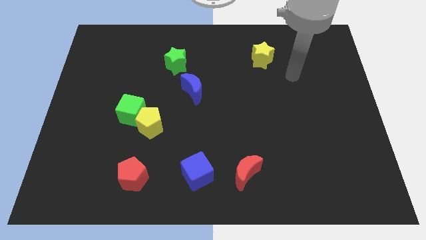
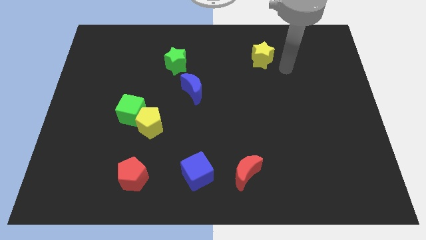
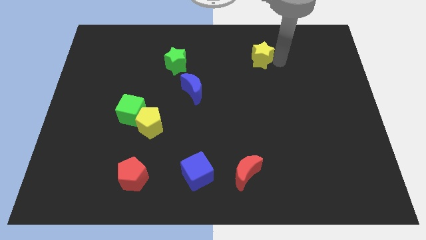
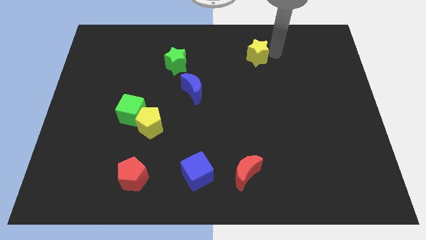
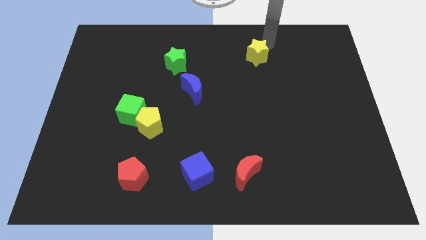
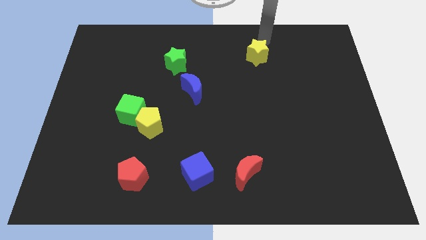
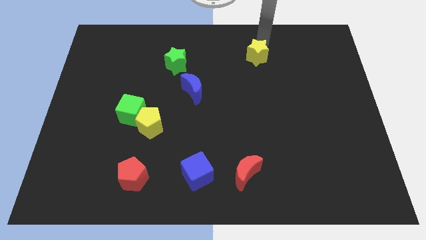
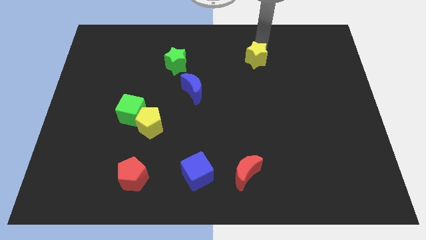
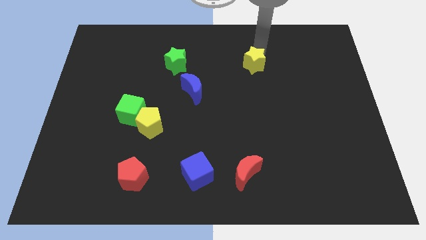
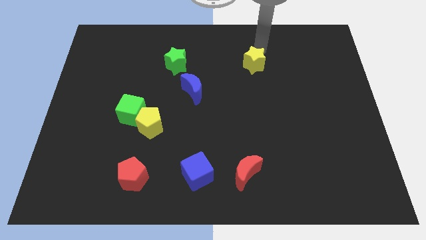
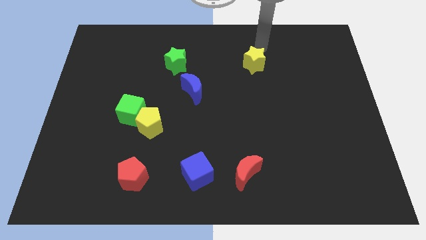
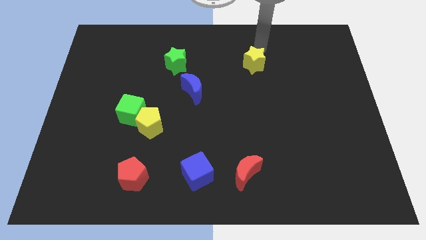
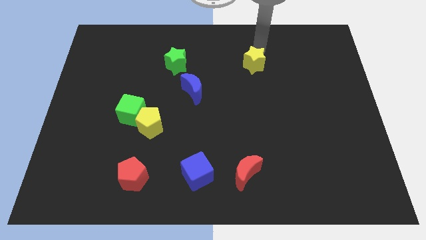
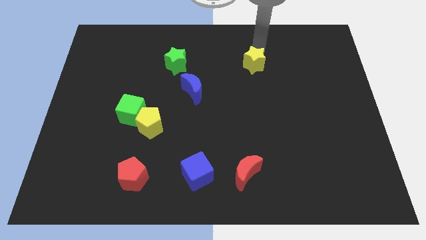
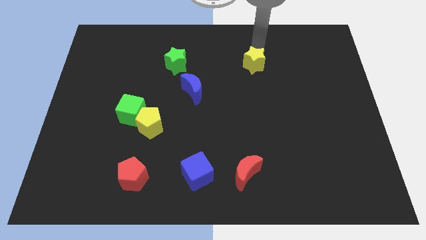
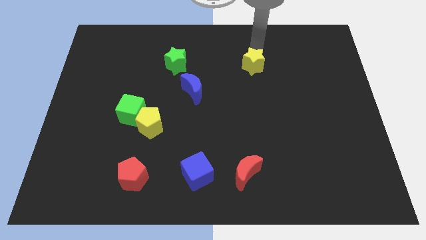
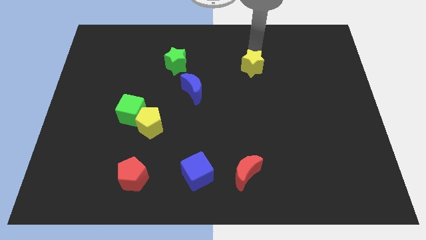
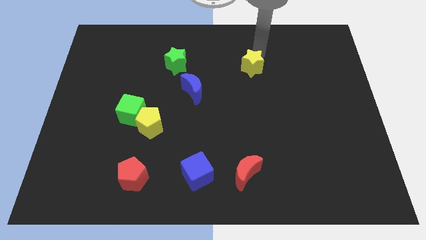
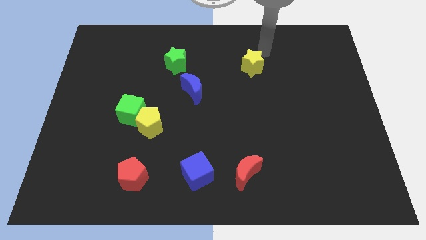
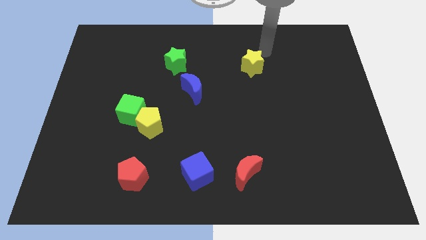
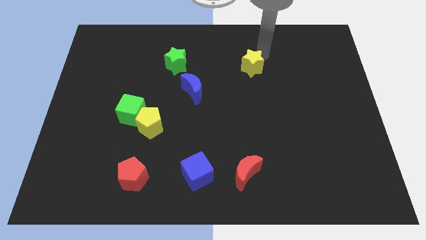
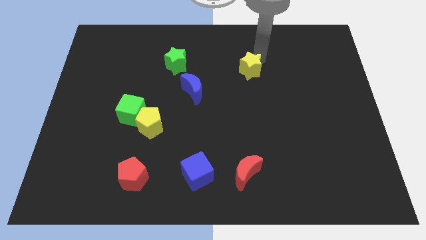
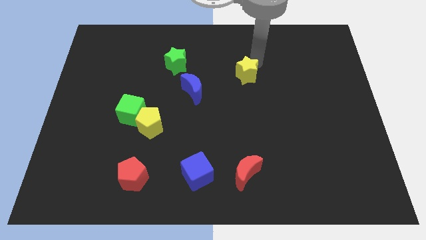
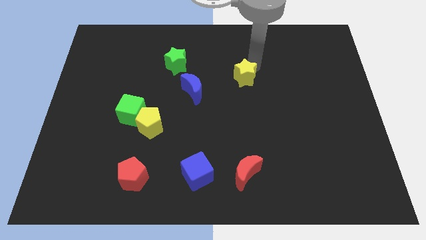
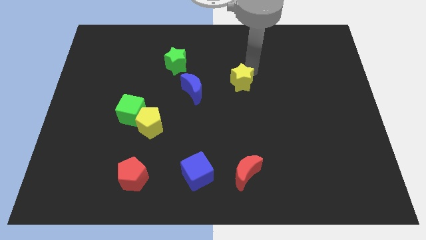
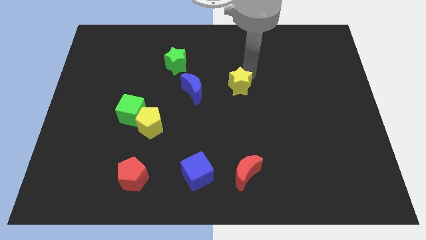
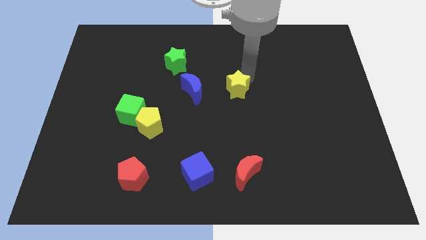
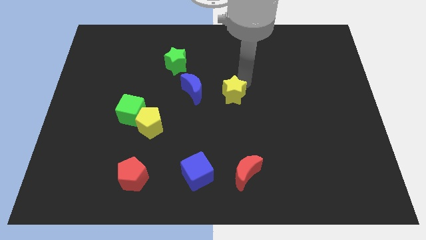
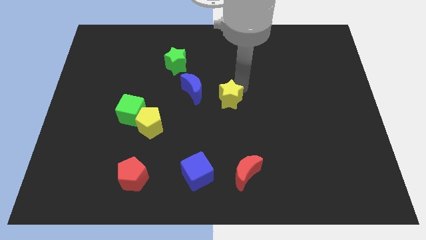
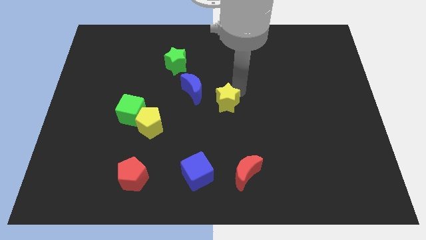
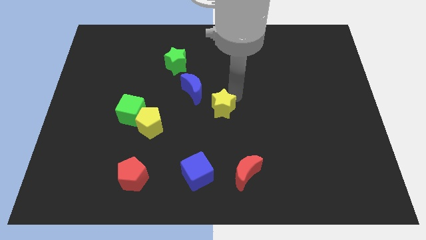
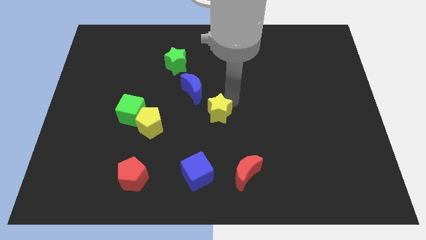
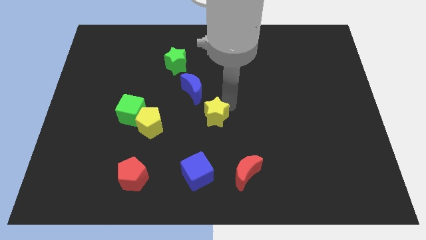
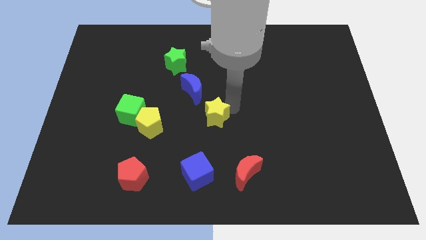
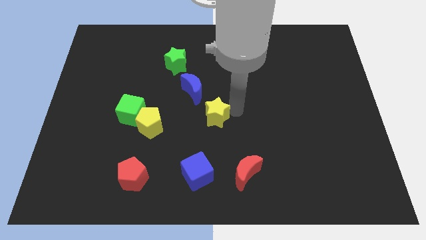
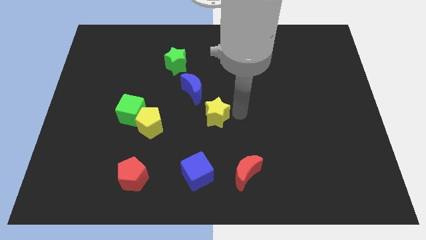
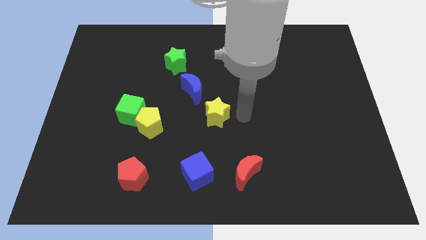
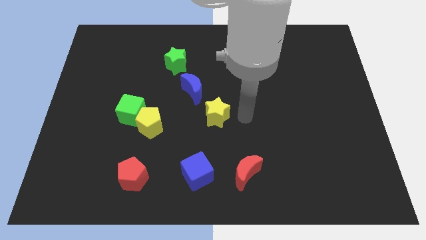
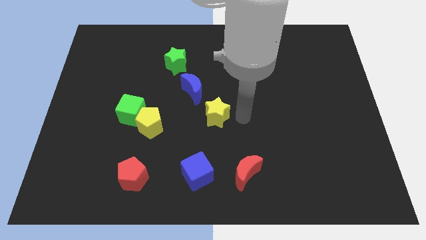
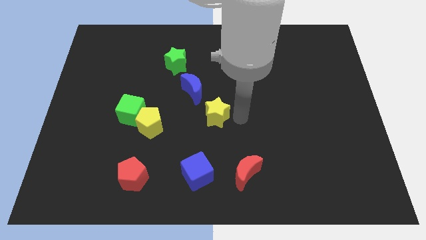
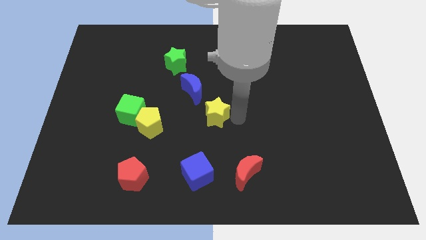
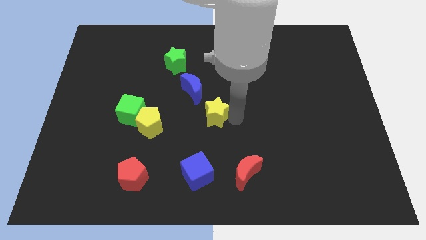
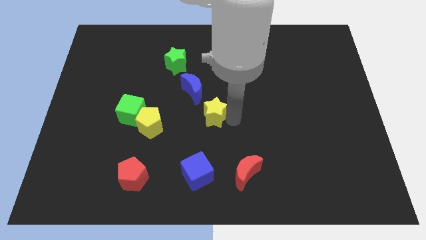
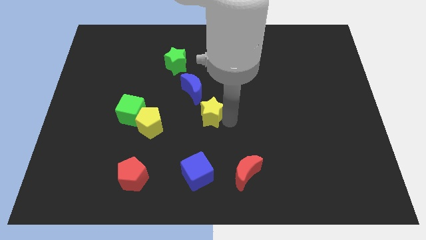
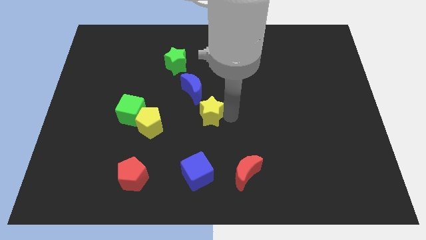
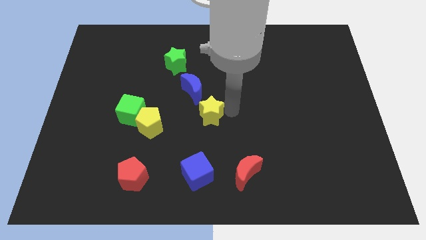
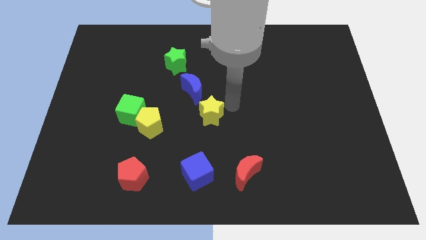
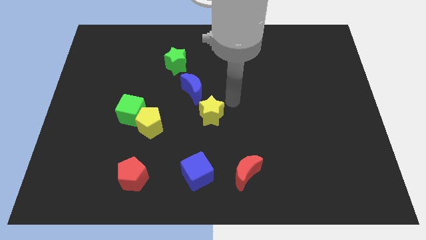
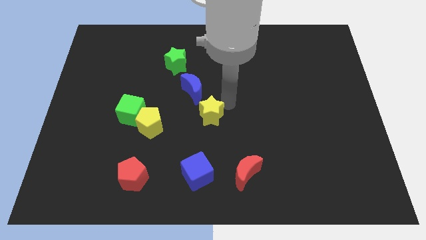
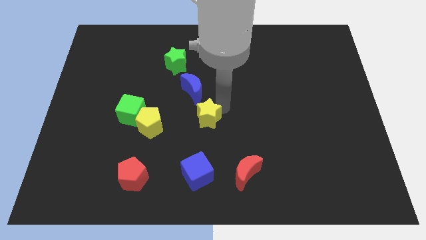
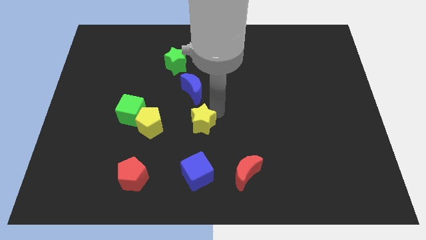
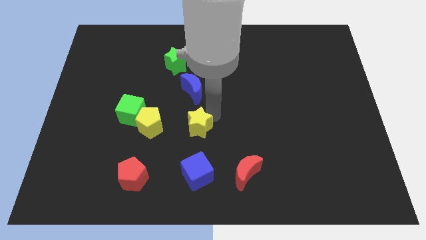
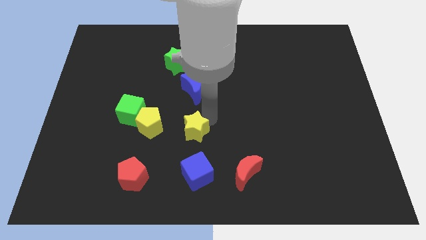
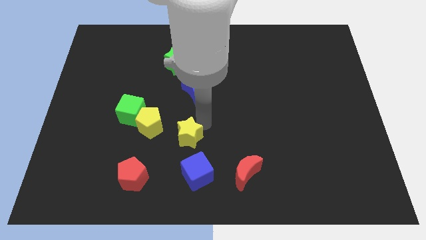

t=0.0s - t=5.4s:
push the yellow star to the top left of the blue cube

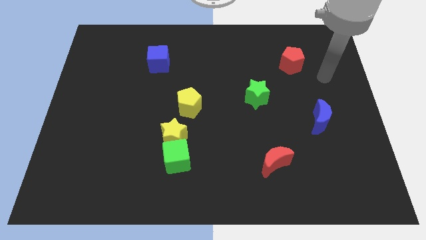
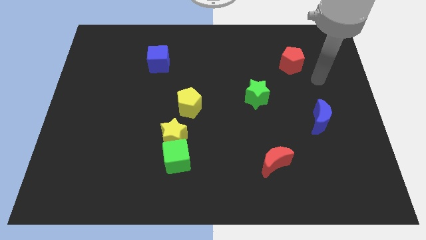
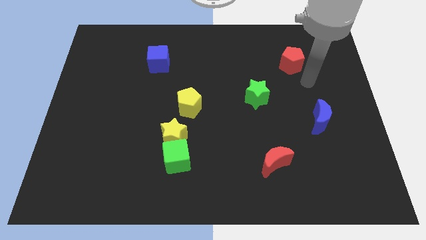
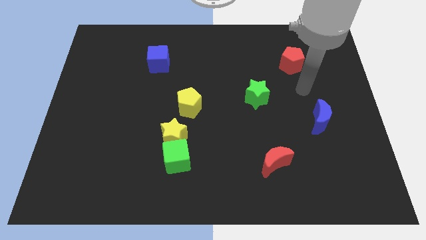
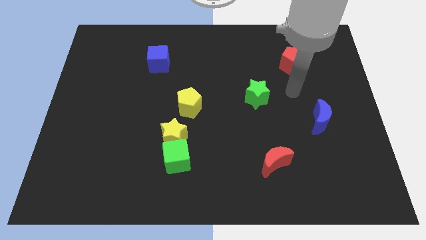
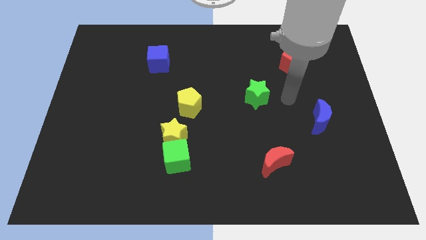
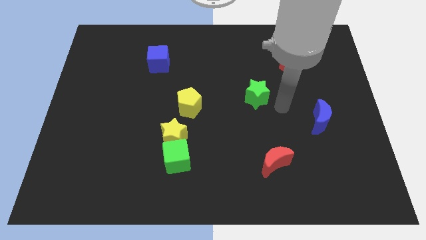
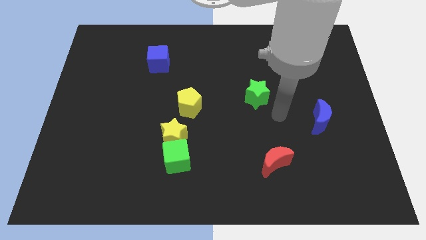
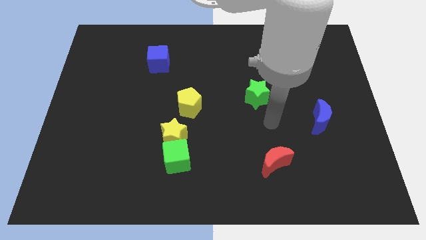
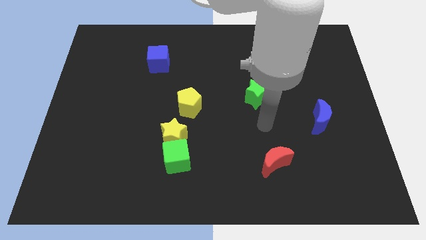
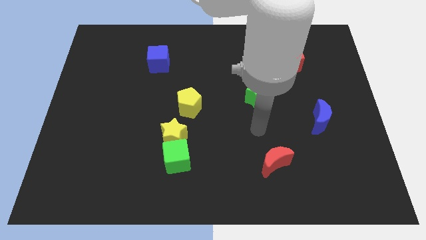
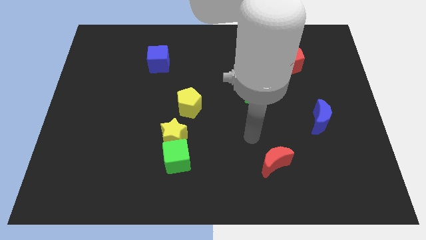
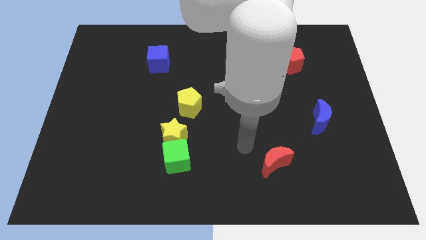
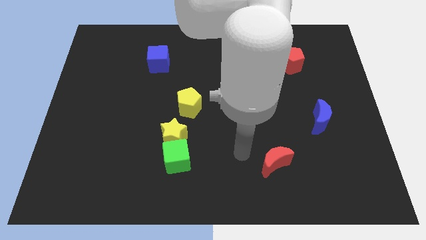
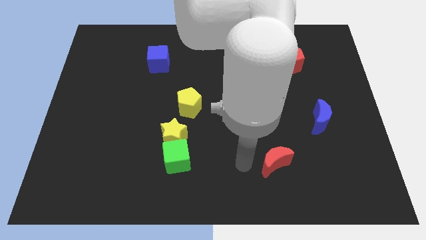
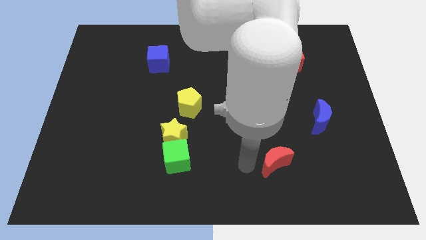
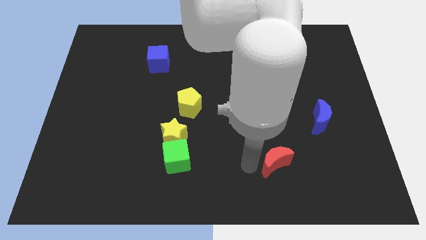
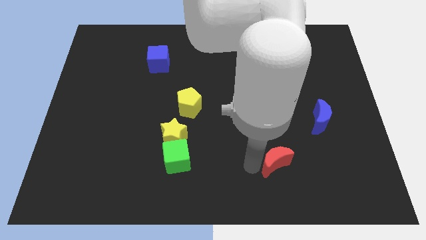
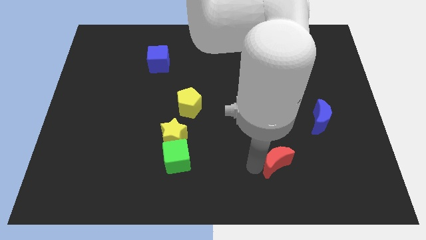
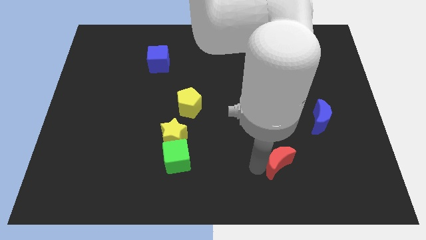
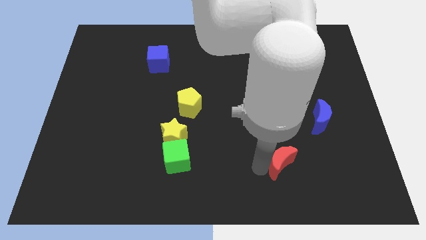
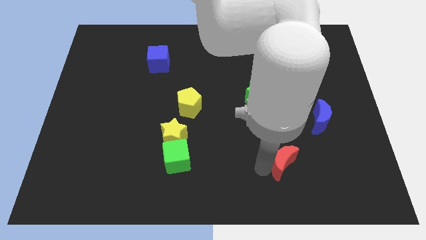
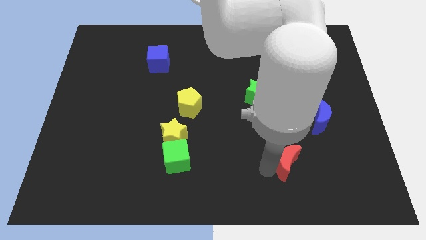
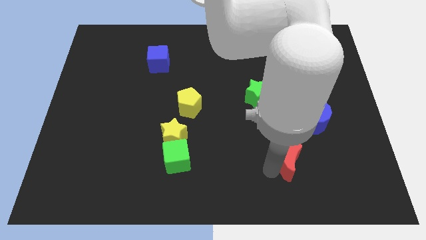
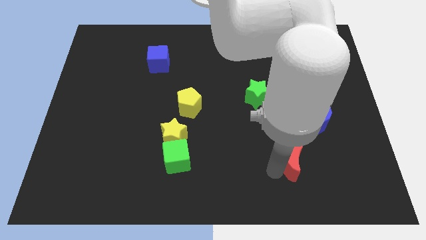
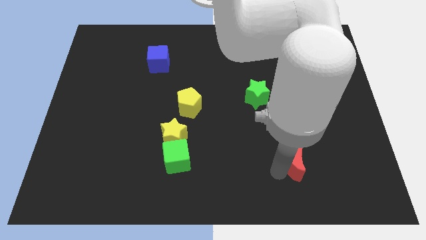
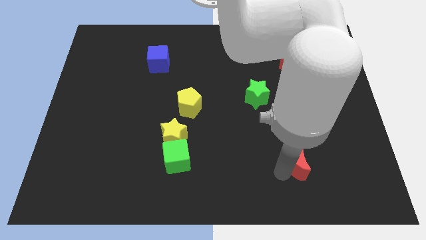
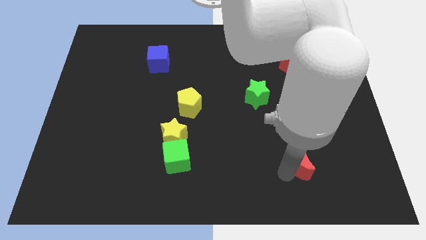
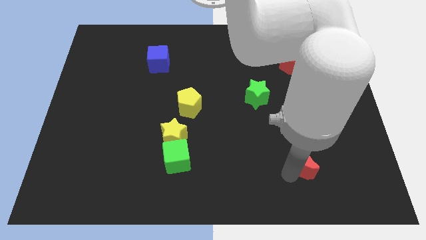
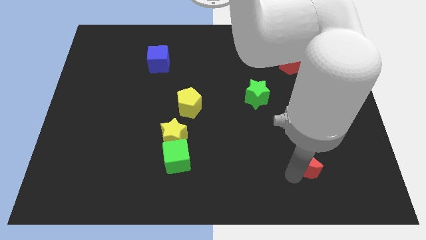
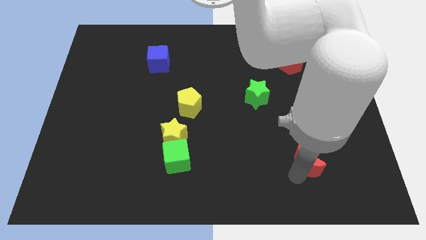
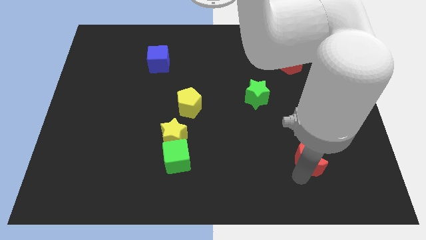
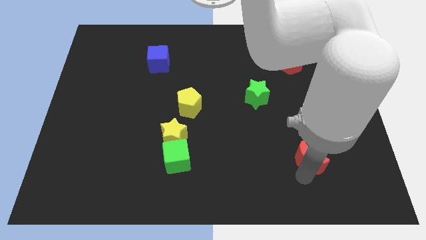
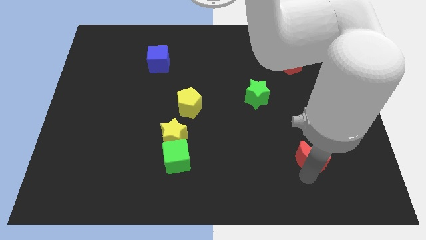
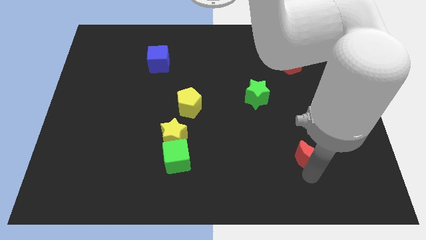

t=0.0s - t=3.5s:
move the red moon to the bottom left side of the blue moon
